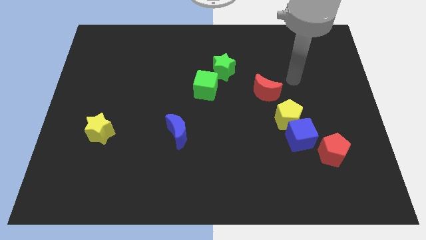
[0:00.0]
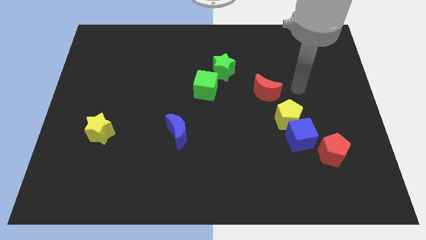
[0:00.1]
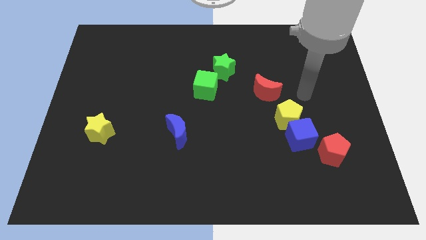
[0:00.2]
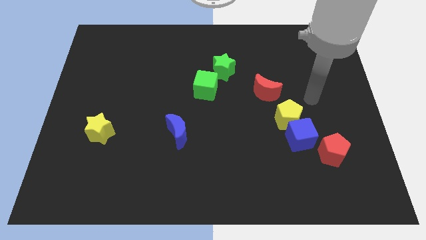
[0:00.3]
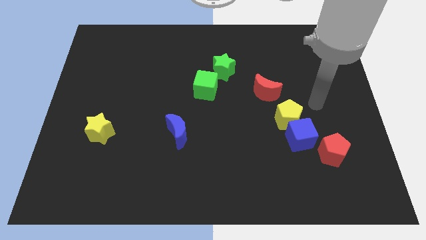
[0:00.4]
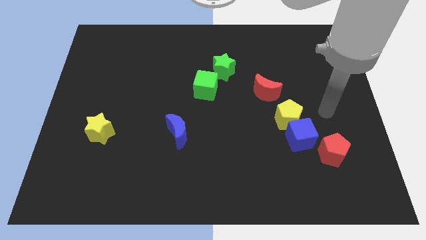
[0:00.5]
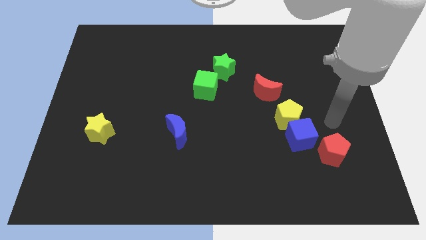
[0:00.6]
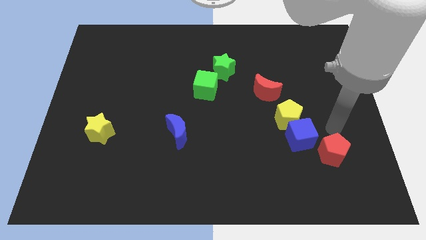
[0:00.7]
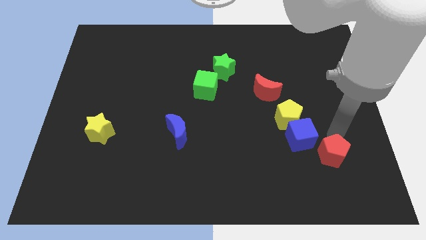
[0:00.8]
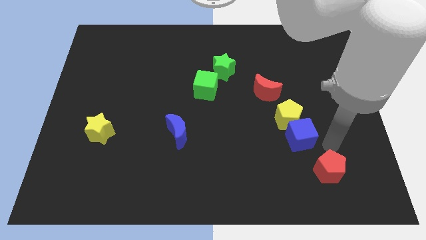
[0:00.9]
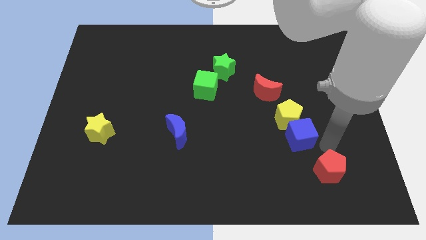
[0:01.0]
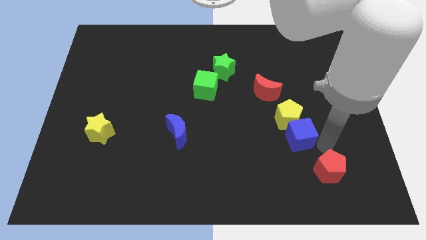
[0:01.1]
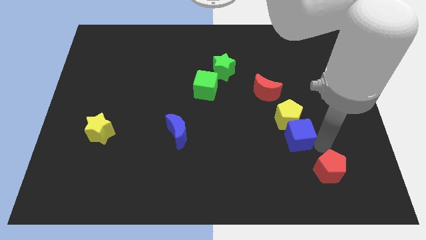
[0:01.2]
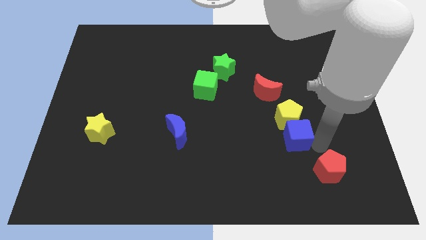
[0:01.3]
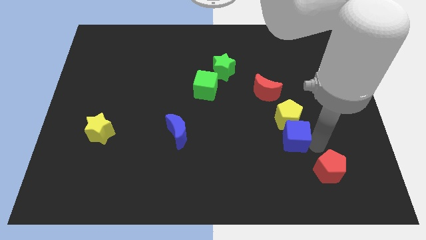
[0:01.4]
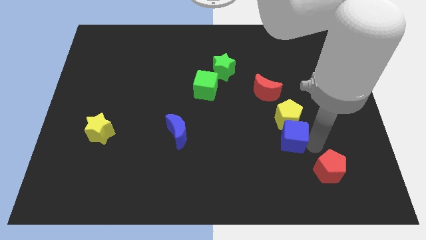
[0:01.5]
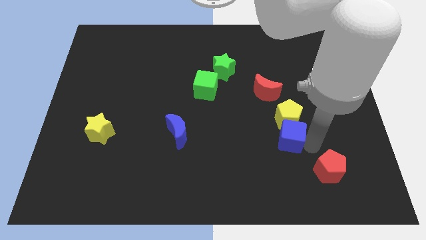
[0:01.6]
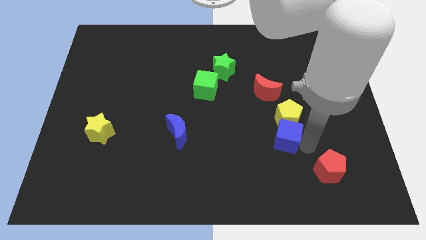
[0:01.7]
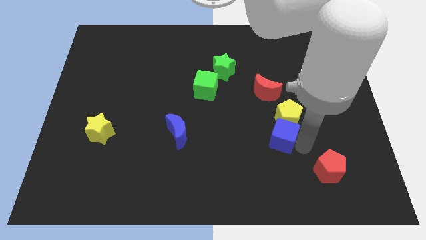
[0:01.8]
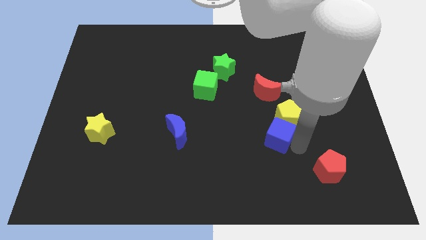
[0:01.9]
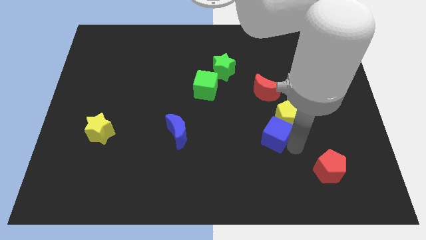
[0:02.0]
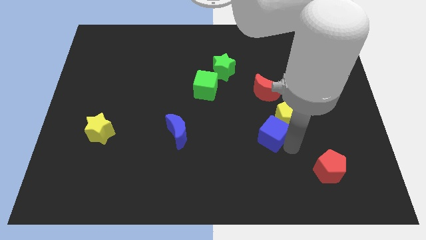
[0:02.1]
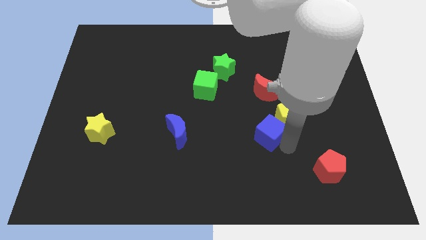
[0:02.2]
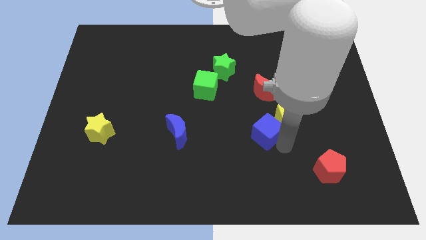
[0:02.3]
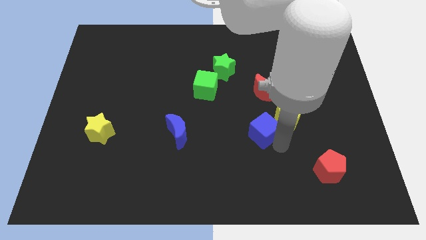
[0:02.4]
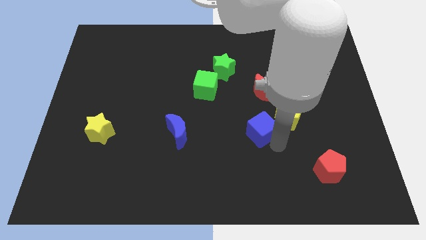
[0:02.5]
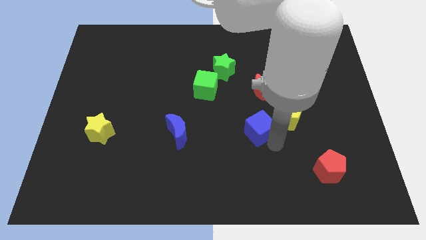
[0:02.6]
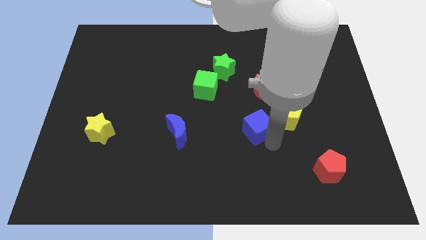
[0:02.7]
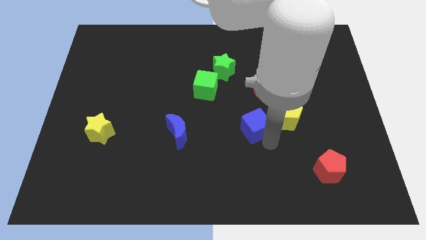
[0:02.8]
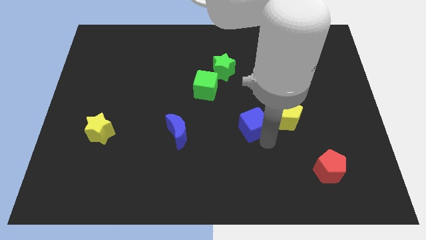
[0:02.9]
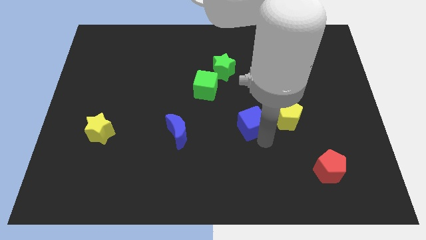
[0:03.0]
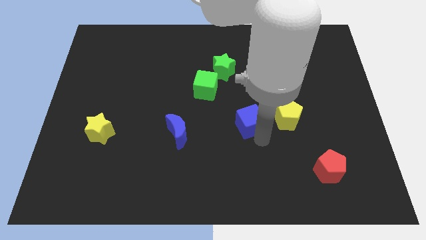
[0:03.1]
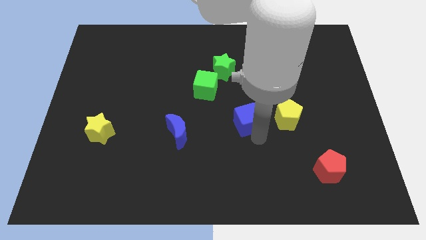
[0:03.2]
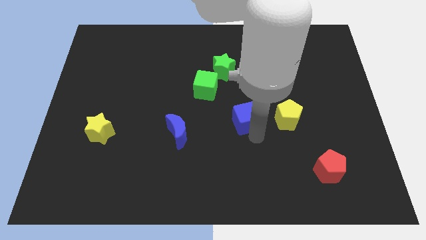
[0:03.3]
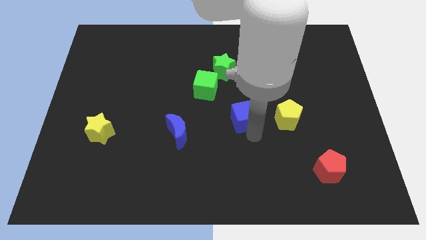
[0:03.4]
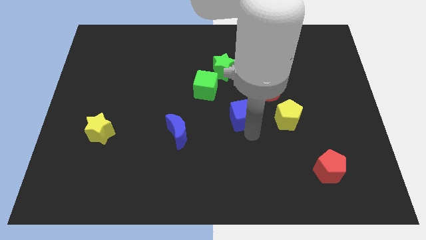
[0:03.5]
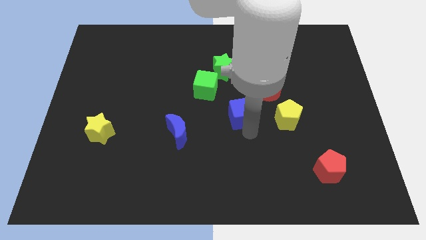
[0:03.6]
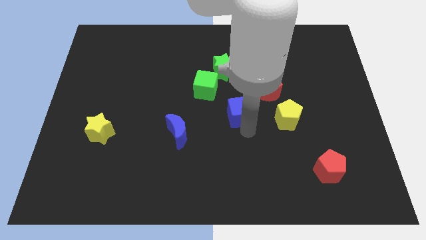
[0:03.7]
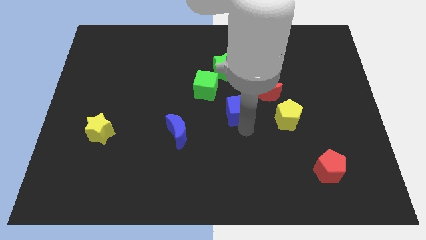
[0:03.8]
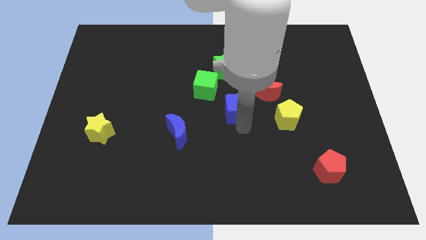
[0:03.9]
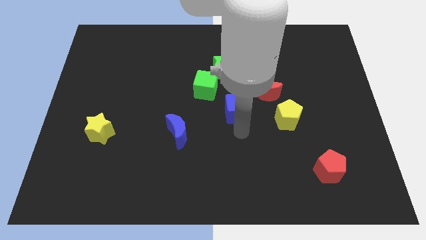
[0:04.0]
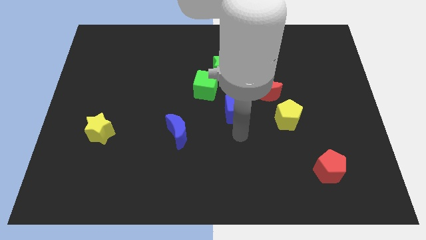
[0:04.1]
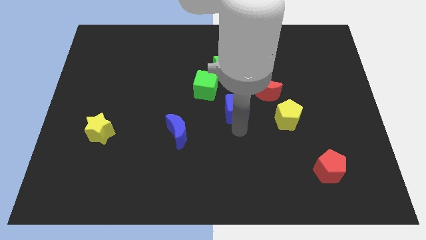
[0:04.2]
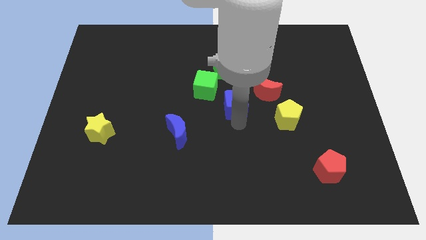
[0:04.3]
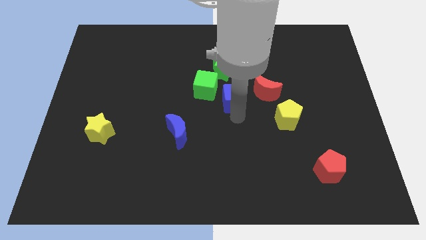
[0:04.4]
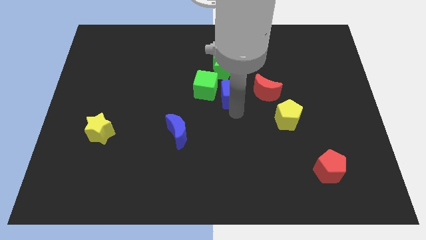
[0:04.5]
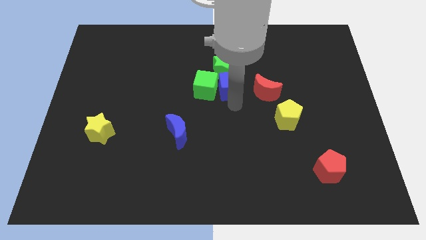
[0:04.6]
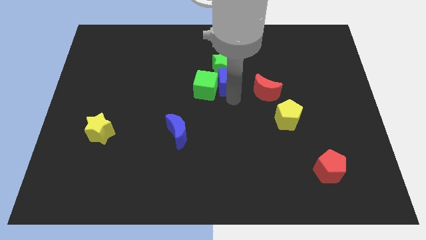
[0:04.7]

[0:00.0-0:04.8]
move the blue cube towards the green star

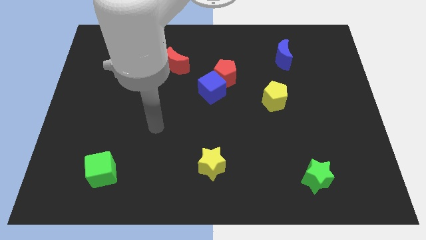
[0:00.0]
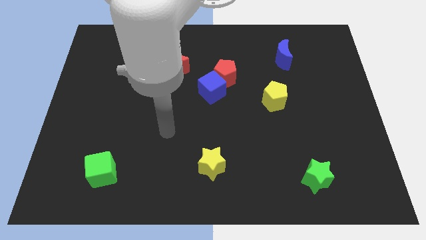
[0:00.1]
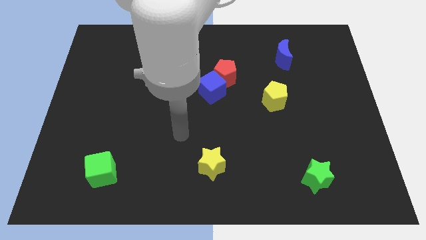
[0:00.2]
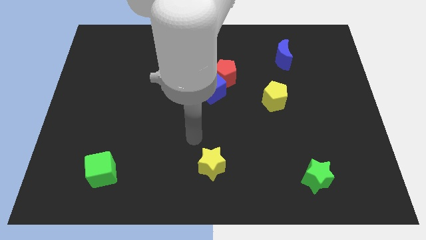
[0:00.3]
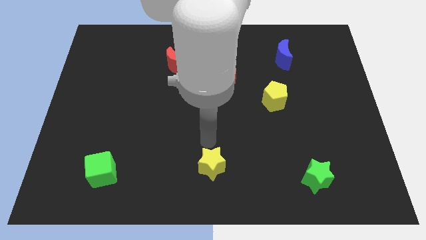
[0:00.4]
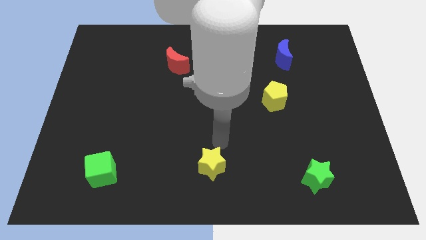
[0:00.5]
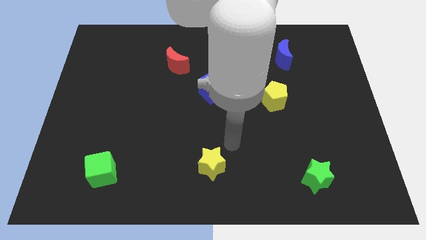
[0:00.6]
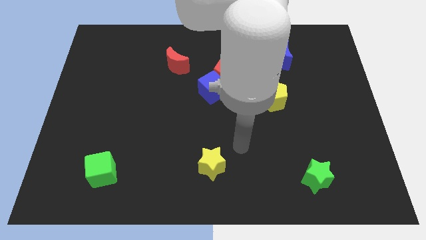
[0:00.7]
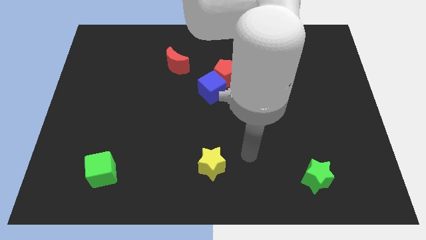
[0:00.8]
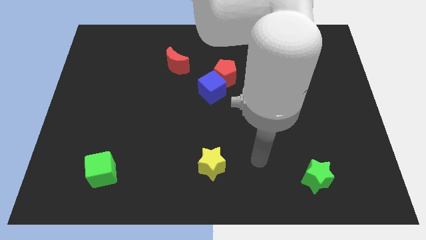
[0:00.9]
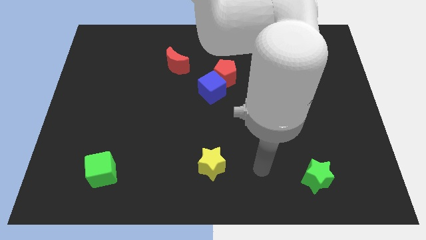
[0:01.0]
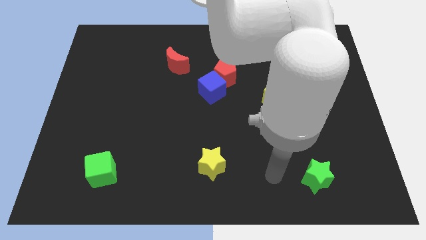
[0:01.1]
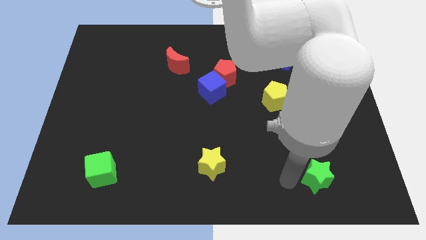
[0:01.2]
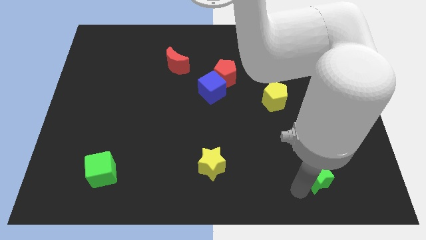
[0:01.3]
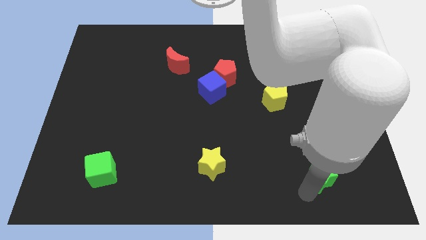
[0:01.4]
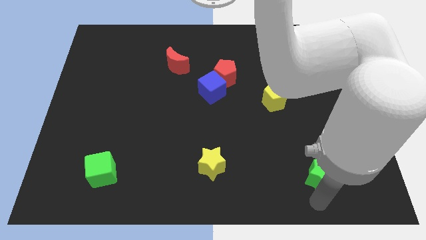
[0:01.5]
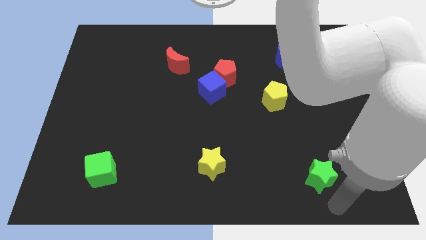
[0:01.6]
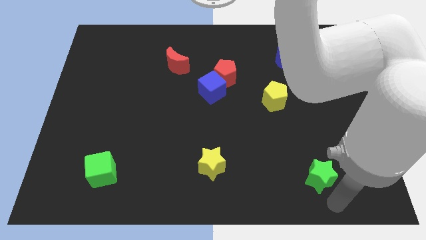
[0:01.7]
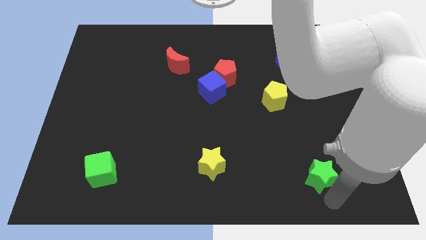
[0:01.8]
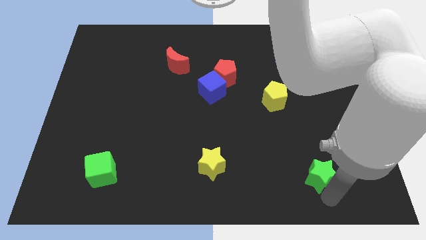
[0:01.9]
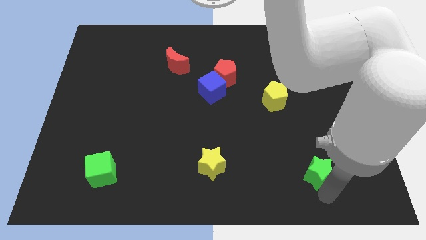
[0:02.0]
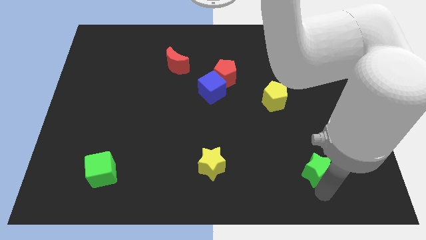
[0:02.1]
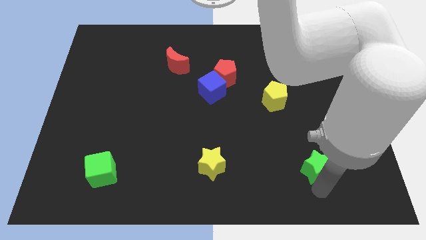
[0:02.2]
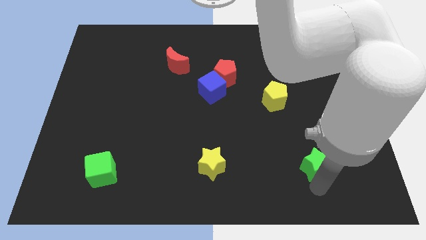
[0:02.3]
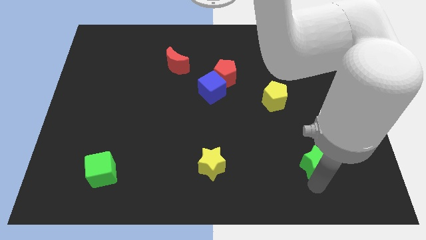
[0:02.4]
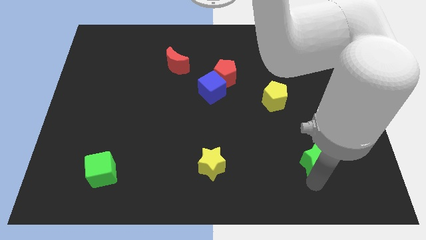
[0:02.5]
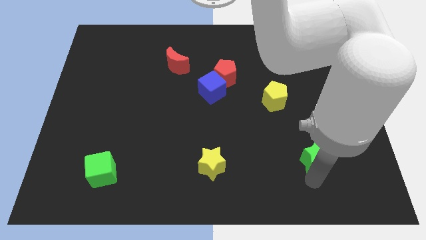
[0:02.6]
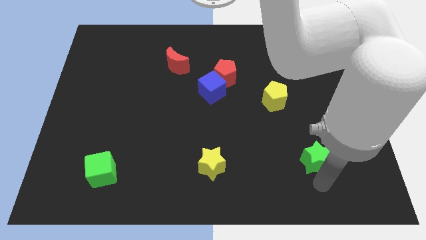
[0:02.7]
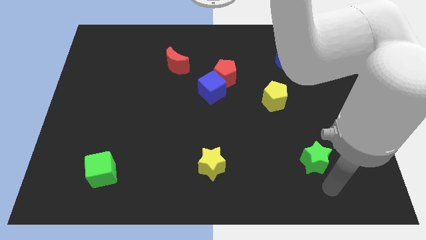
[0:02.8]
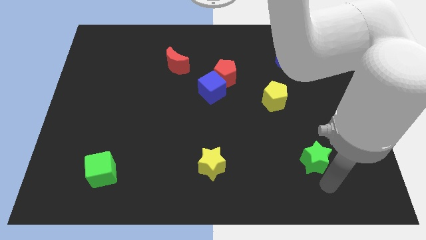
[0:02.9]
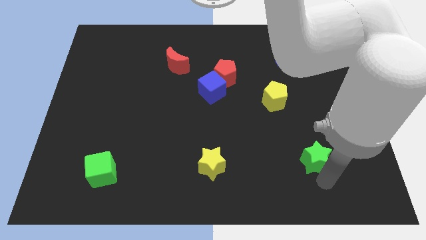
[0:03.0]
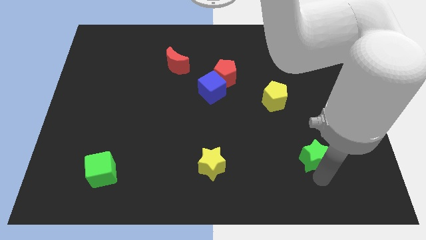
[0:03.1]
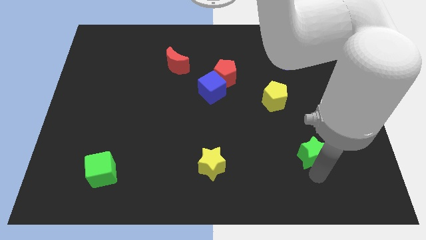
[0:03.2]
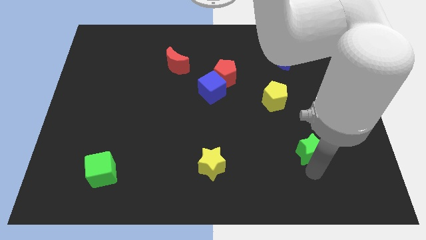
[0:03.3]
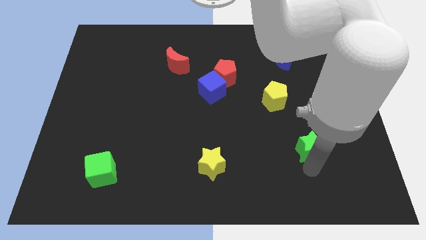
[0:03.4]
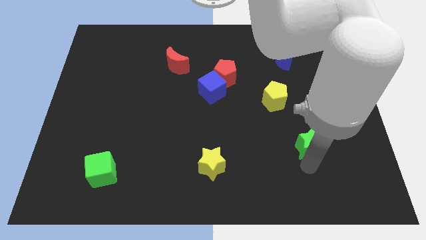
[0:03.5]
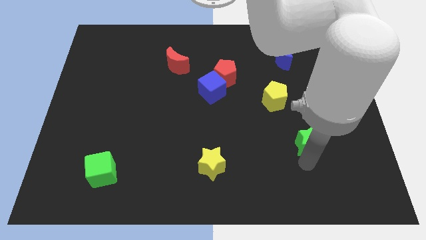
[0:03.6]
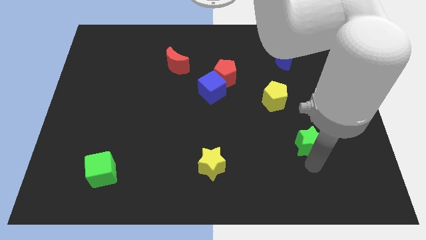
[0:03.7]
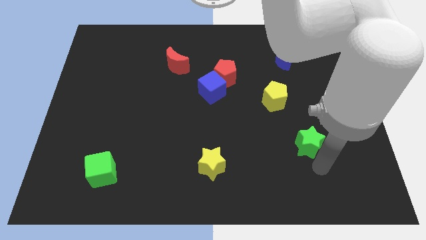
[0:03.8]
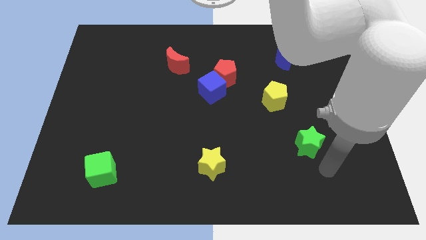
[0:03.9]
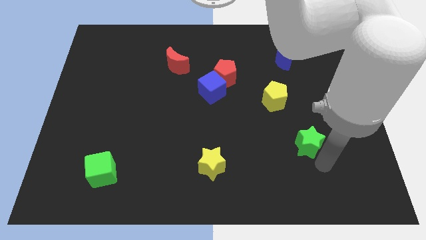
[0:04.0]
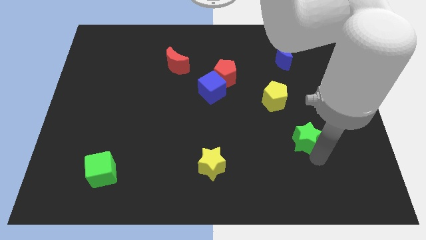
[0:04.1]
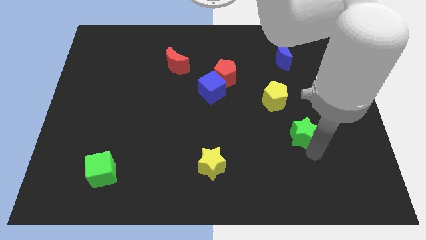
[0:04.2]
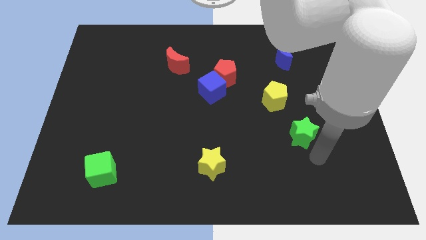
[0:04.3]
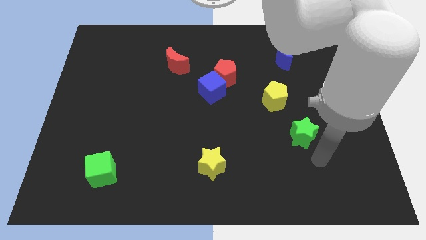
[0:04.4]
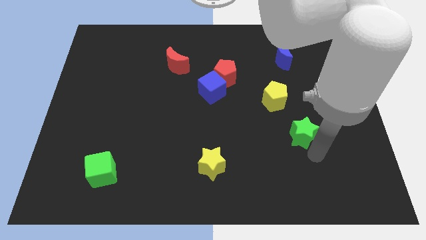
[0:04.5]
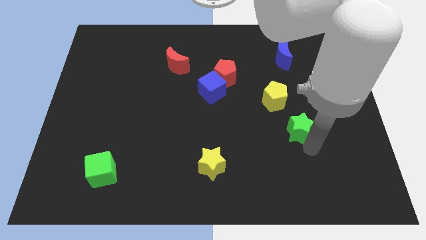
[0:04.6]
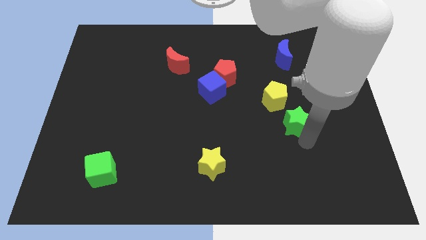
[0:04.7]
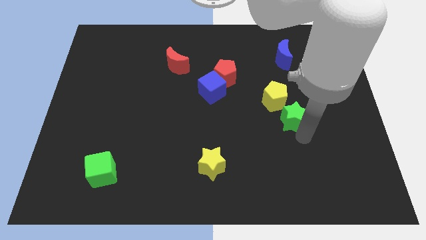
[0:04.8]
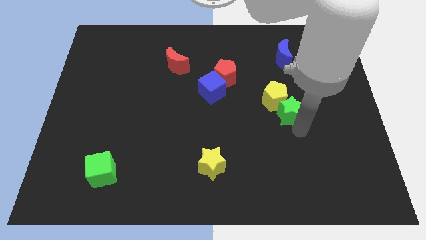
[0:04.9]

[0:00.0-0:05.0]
put the green star next to the yellow pentagon
